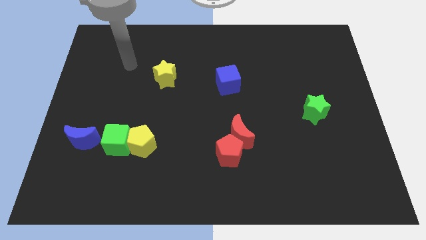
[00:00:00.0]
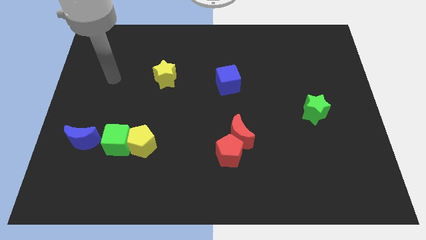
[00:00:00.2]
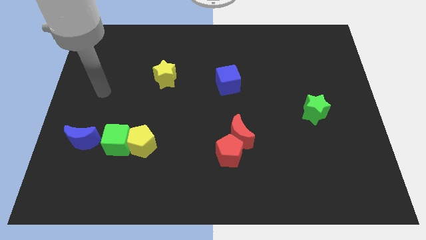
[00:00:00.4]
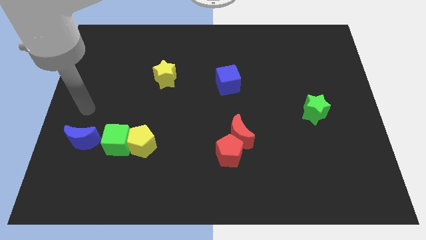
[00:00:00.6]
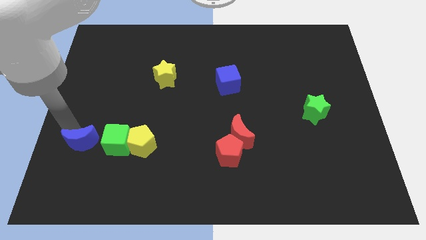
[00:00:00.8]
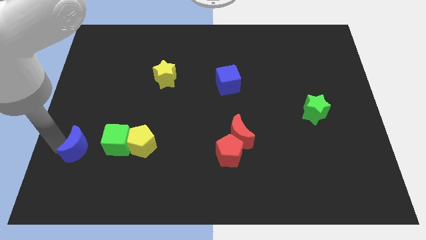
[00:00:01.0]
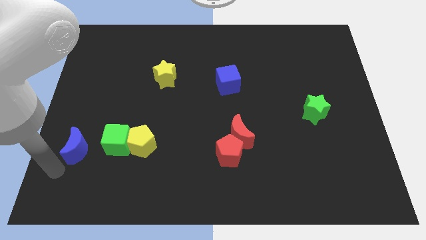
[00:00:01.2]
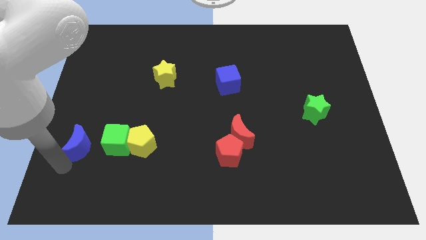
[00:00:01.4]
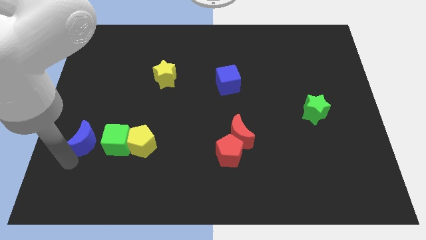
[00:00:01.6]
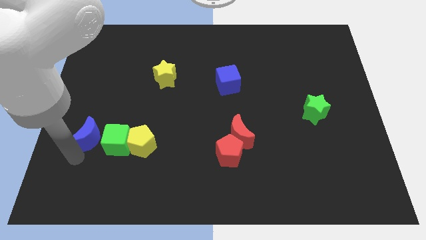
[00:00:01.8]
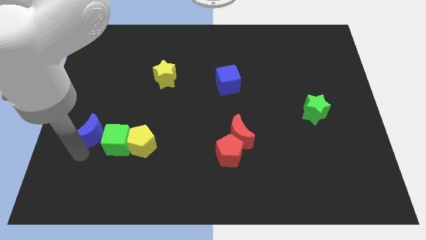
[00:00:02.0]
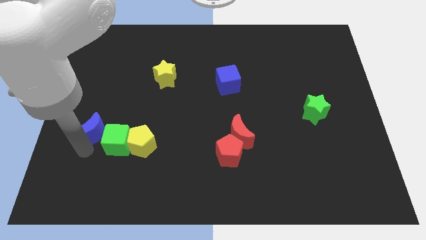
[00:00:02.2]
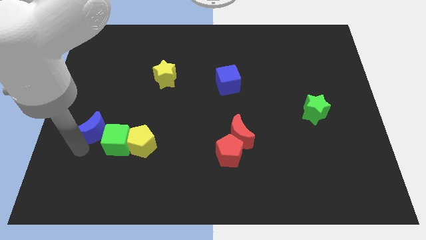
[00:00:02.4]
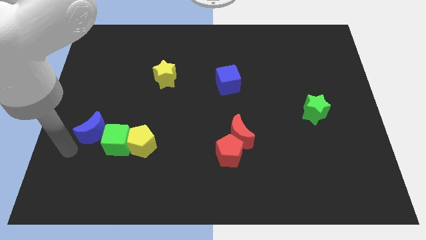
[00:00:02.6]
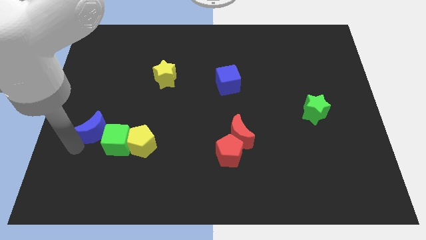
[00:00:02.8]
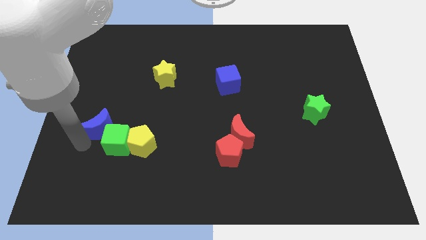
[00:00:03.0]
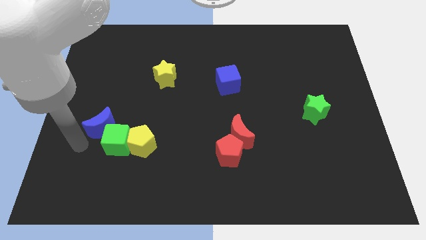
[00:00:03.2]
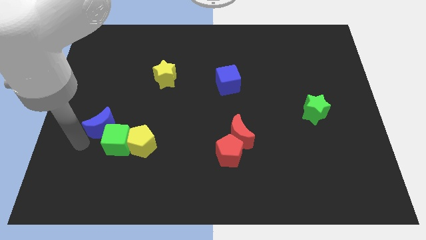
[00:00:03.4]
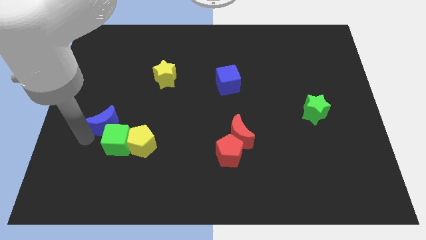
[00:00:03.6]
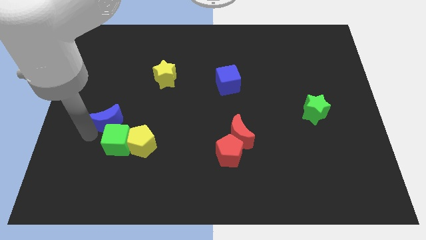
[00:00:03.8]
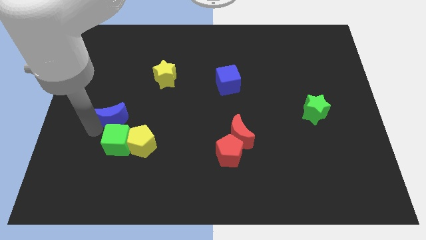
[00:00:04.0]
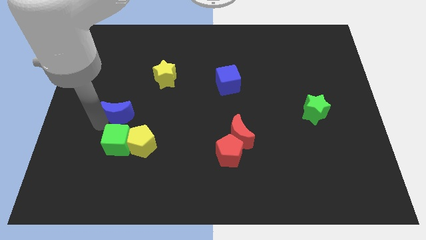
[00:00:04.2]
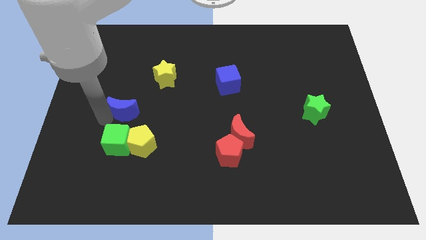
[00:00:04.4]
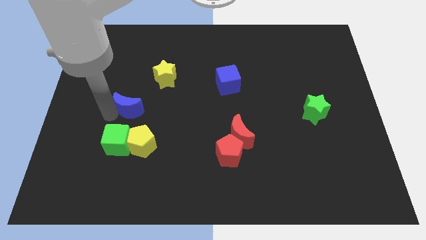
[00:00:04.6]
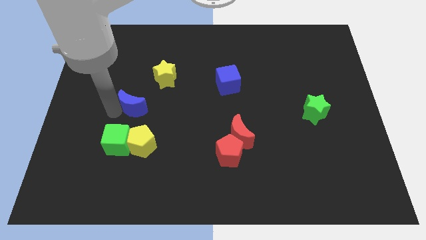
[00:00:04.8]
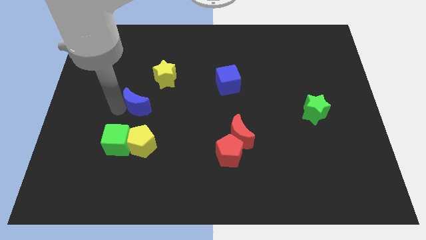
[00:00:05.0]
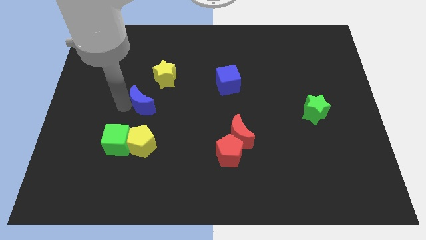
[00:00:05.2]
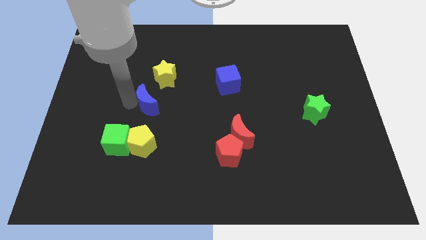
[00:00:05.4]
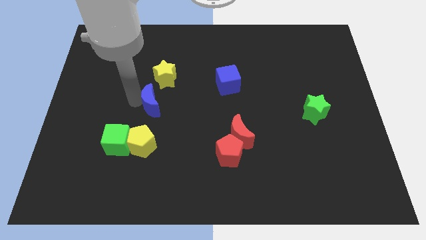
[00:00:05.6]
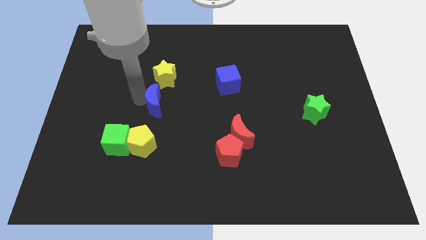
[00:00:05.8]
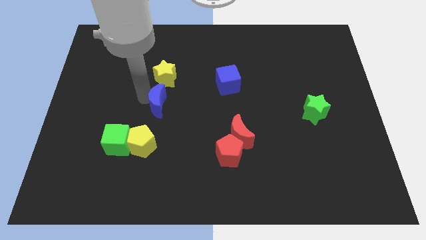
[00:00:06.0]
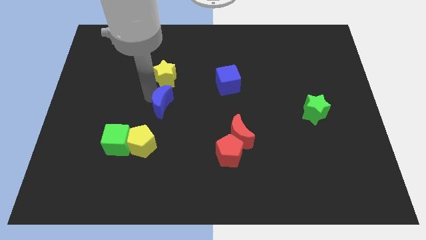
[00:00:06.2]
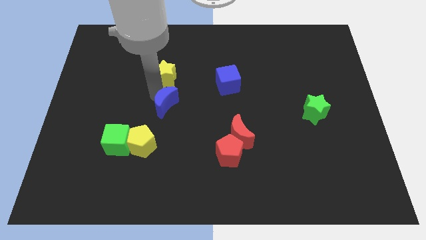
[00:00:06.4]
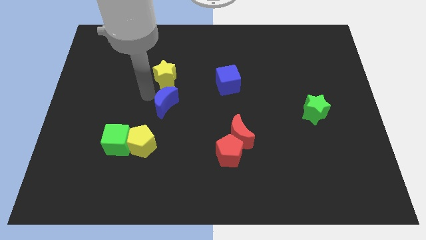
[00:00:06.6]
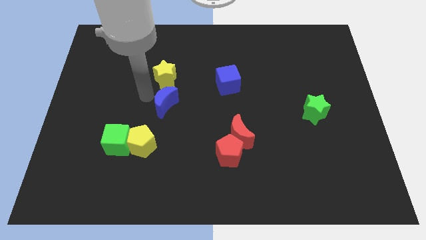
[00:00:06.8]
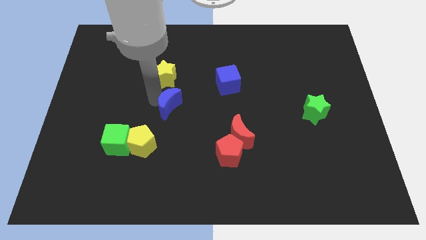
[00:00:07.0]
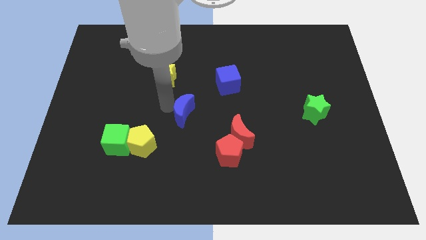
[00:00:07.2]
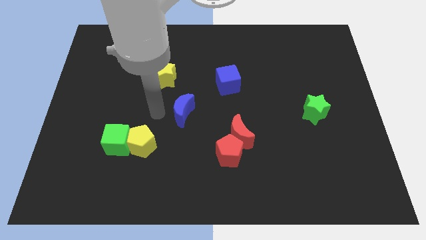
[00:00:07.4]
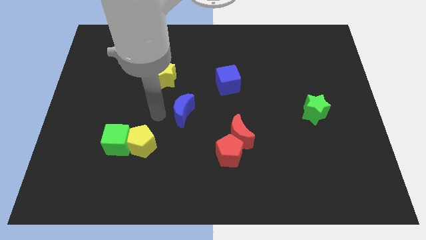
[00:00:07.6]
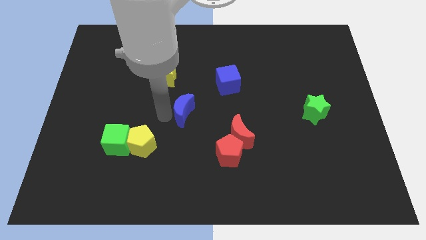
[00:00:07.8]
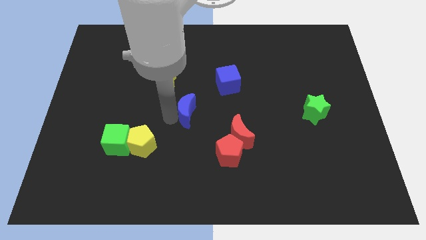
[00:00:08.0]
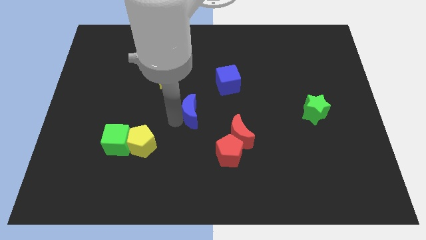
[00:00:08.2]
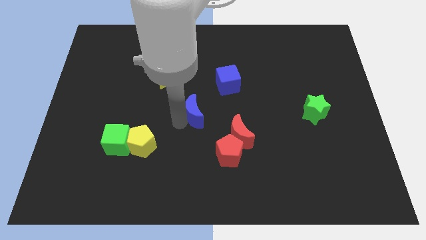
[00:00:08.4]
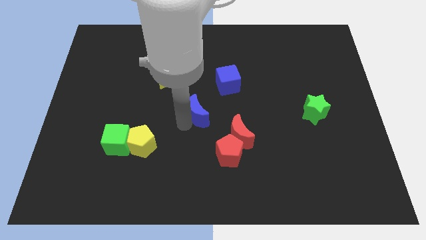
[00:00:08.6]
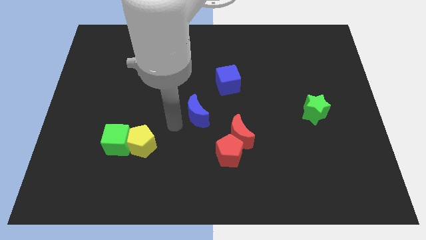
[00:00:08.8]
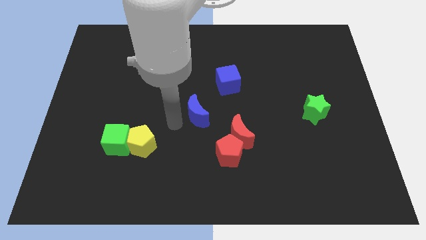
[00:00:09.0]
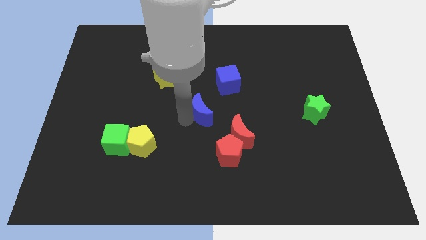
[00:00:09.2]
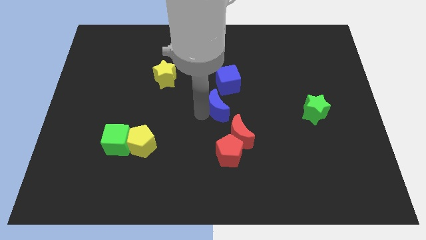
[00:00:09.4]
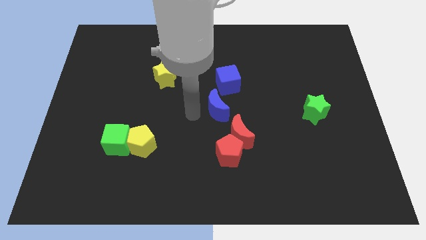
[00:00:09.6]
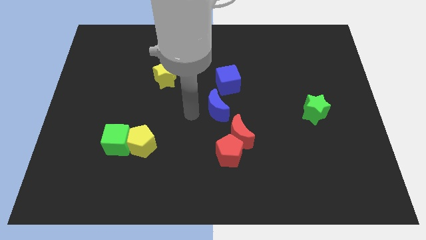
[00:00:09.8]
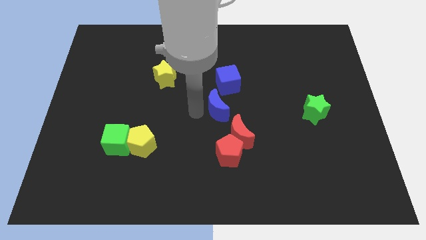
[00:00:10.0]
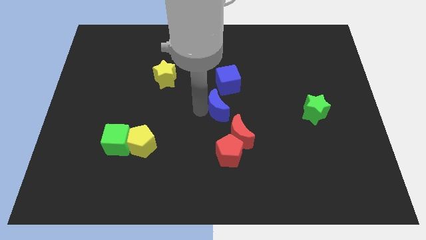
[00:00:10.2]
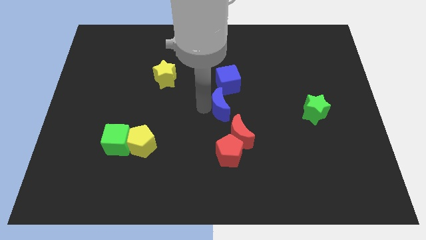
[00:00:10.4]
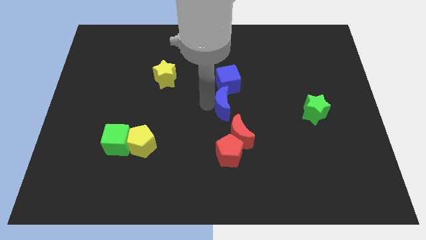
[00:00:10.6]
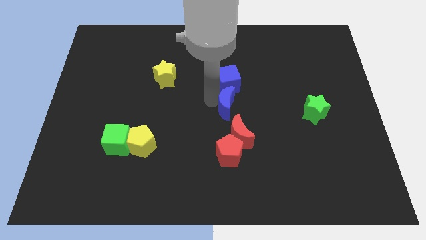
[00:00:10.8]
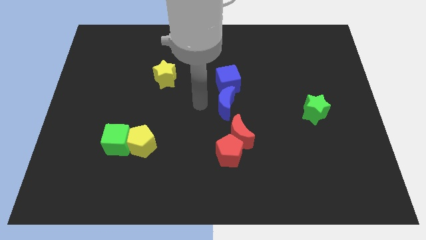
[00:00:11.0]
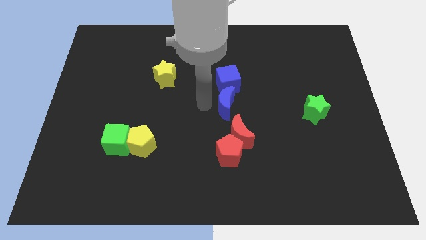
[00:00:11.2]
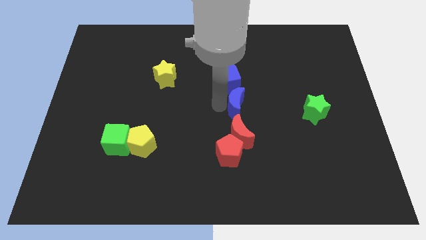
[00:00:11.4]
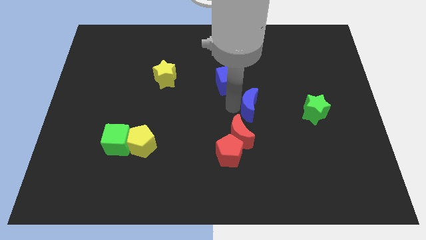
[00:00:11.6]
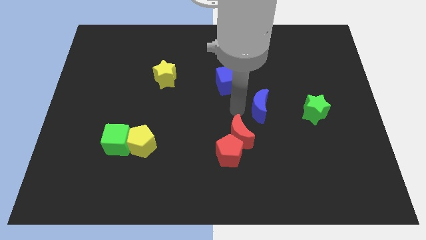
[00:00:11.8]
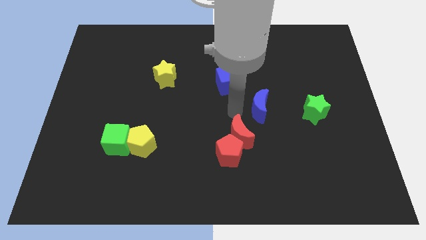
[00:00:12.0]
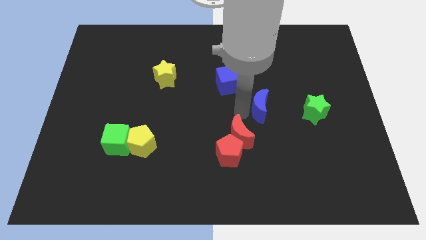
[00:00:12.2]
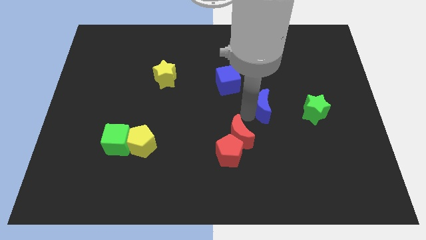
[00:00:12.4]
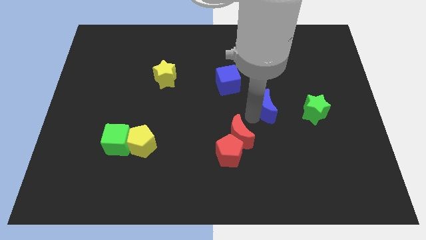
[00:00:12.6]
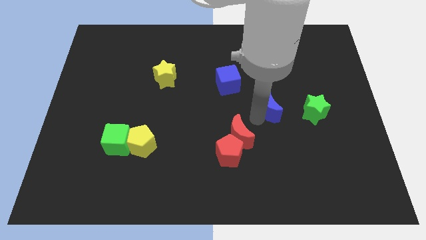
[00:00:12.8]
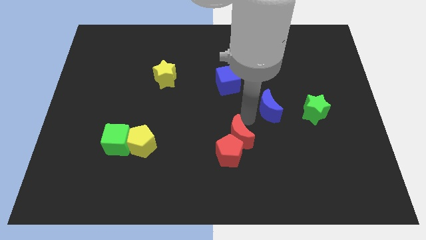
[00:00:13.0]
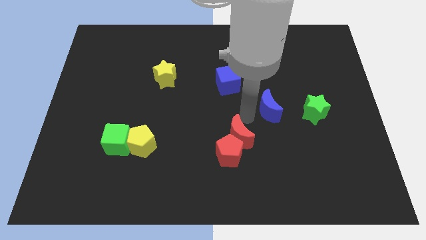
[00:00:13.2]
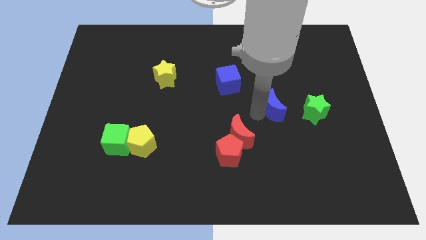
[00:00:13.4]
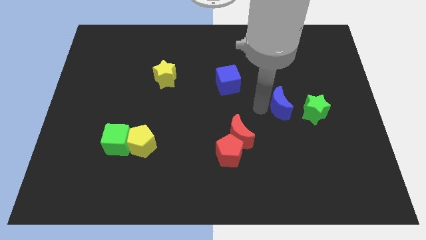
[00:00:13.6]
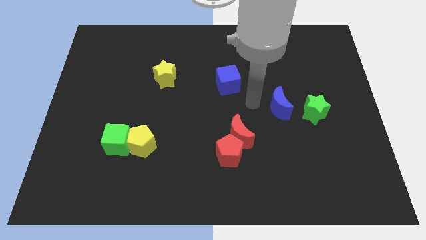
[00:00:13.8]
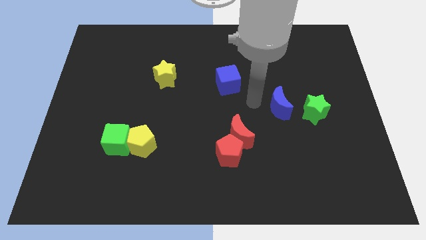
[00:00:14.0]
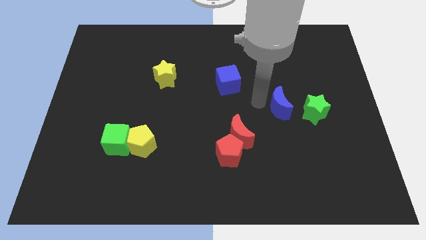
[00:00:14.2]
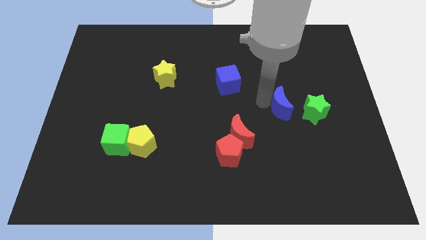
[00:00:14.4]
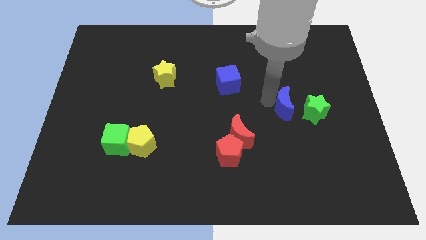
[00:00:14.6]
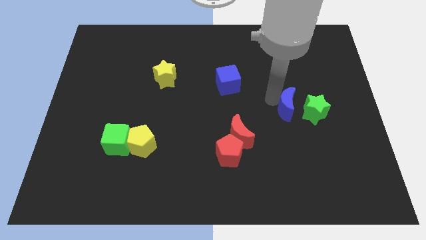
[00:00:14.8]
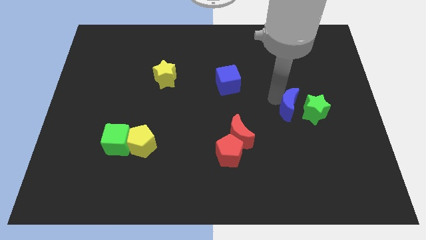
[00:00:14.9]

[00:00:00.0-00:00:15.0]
push the blue moon next to the green star
